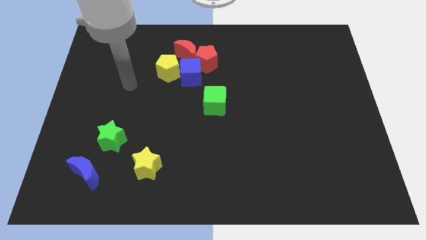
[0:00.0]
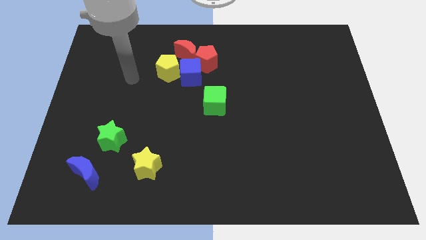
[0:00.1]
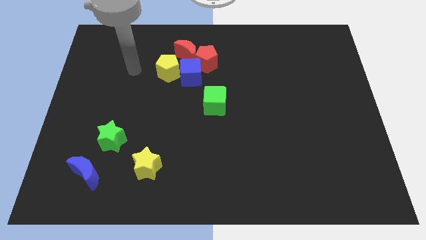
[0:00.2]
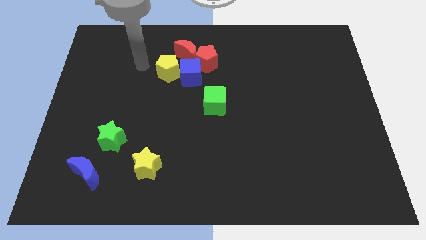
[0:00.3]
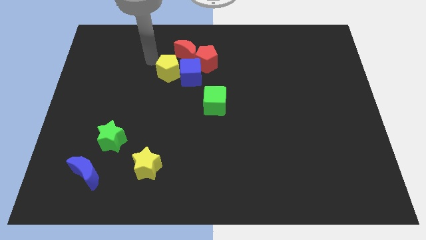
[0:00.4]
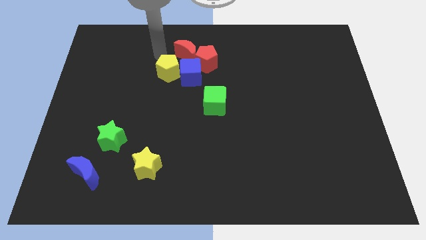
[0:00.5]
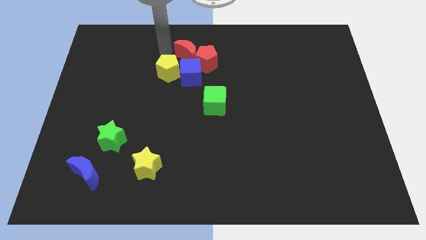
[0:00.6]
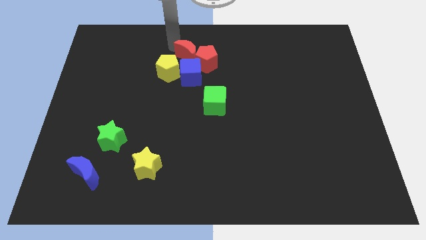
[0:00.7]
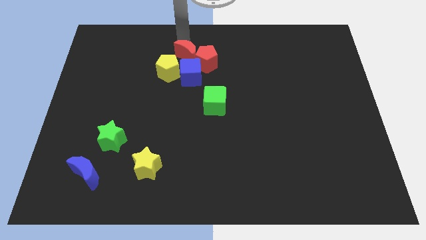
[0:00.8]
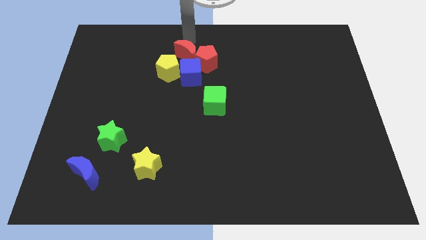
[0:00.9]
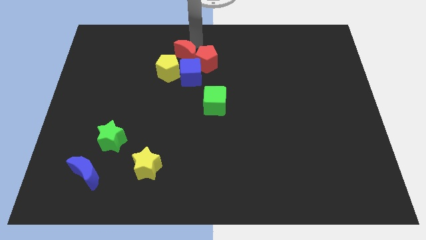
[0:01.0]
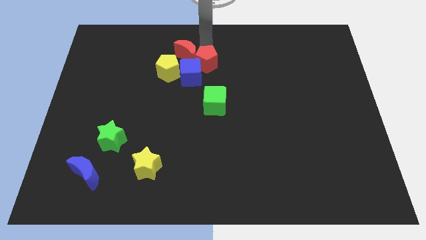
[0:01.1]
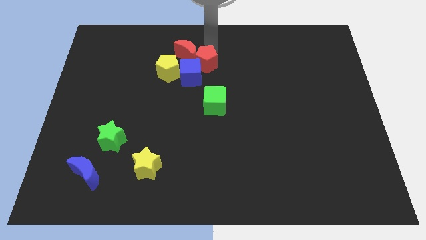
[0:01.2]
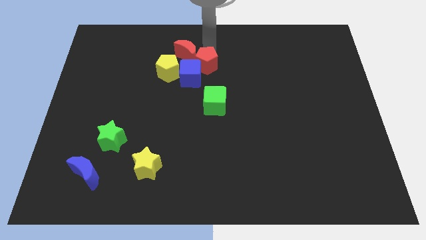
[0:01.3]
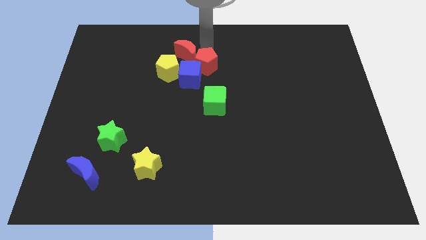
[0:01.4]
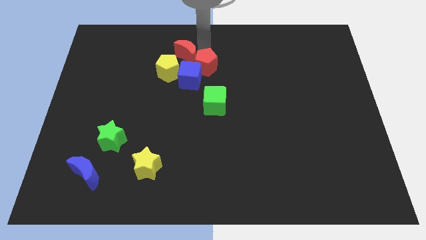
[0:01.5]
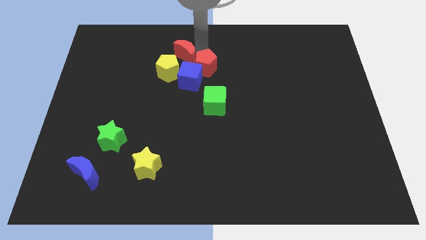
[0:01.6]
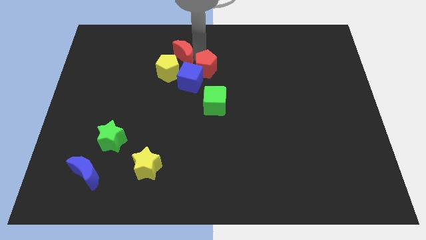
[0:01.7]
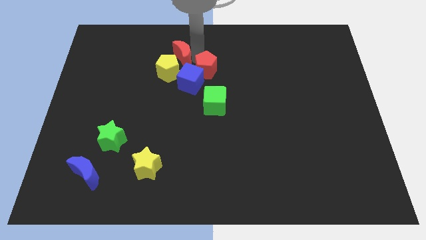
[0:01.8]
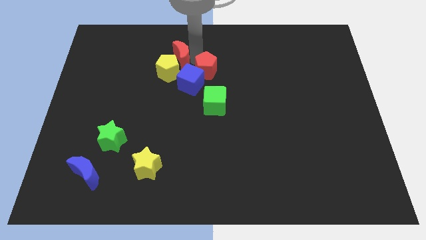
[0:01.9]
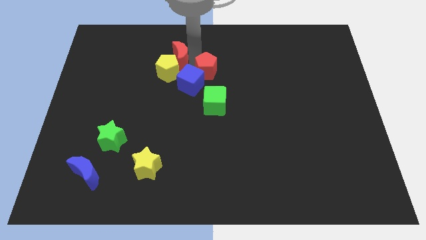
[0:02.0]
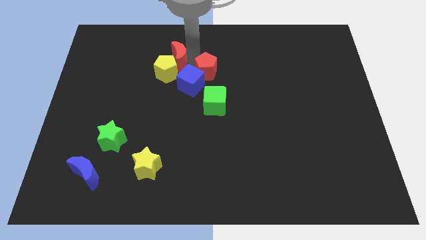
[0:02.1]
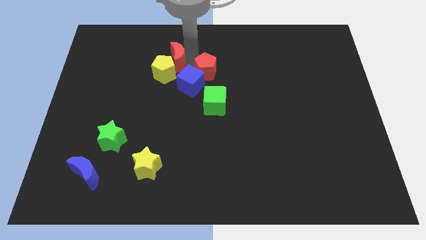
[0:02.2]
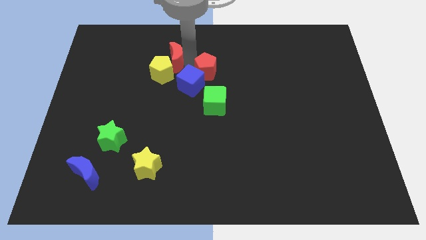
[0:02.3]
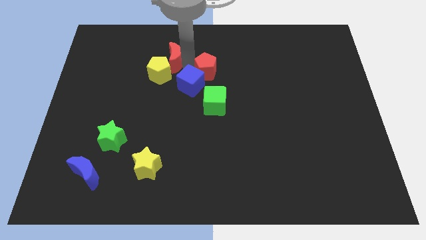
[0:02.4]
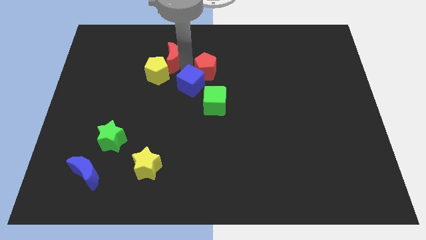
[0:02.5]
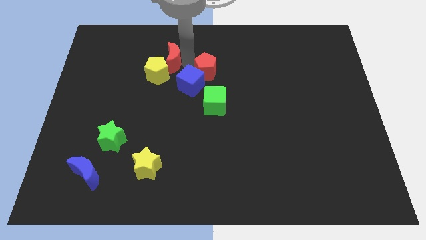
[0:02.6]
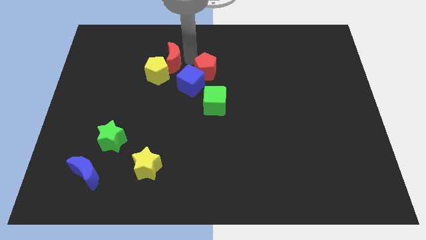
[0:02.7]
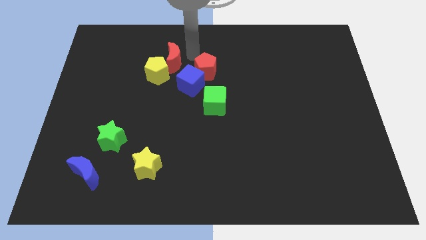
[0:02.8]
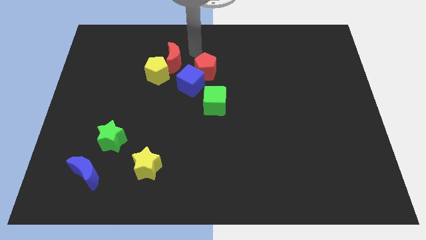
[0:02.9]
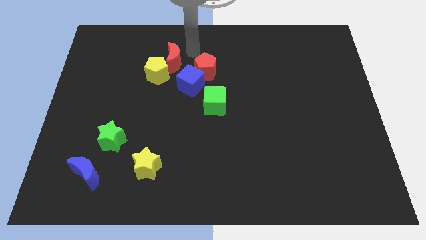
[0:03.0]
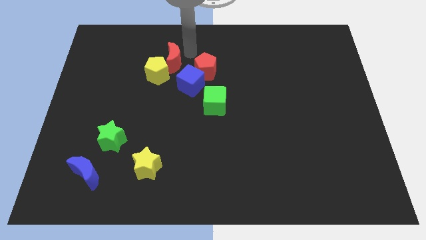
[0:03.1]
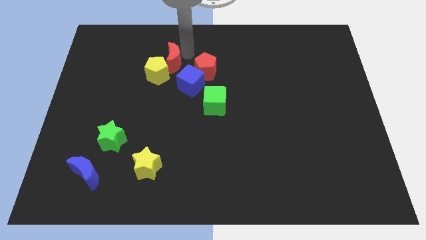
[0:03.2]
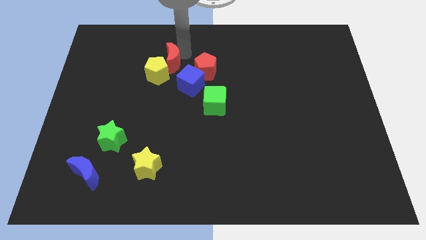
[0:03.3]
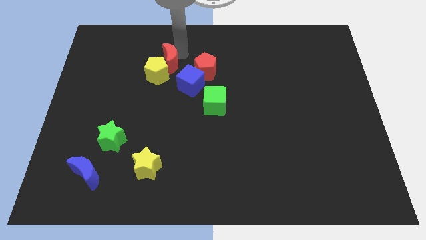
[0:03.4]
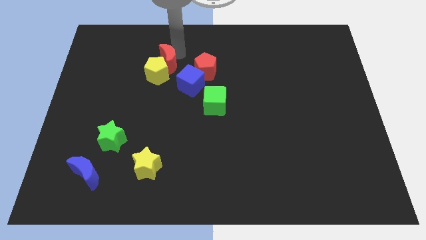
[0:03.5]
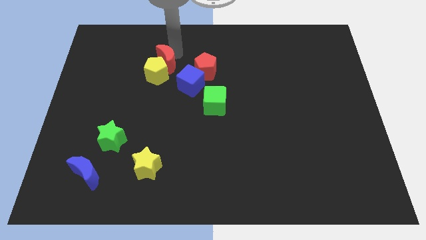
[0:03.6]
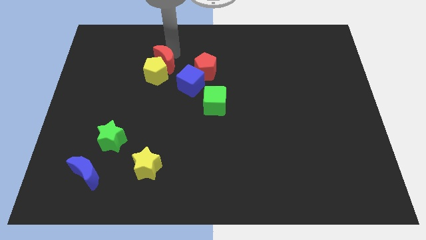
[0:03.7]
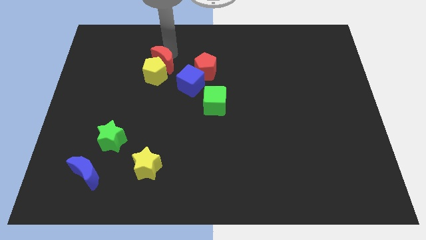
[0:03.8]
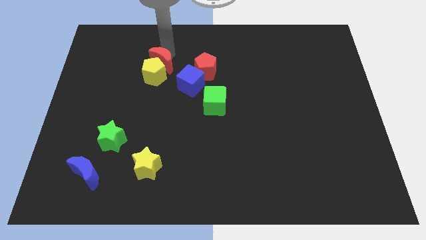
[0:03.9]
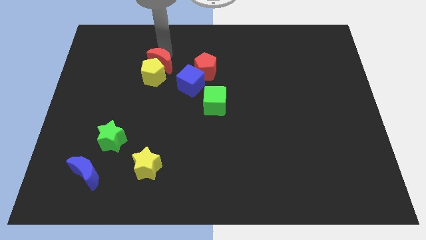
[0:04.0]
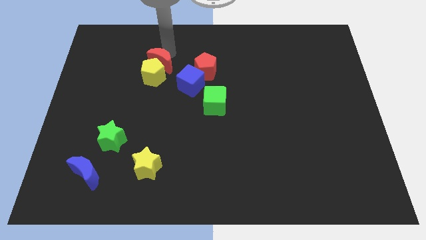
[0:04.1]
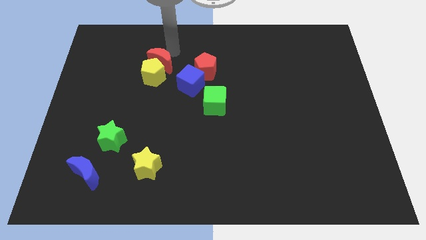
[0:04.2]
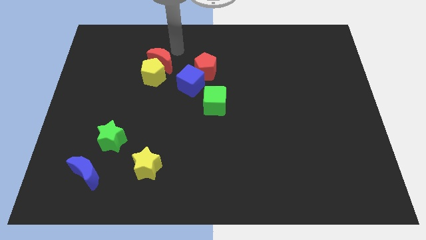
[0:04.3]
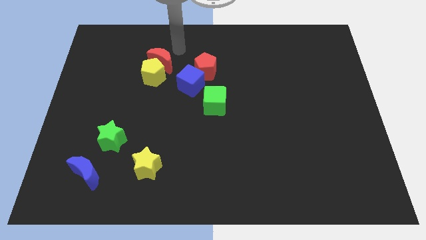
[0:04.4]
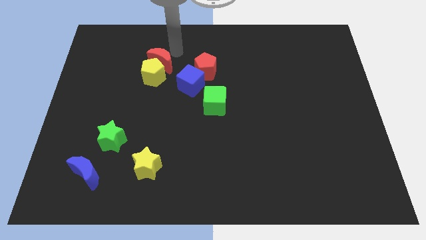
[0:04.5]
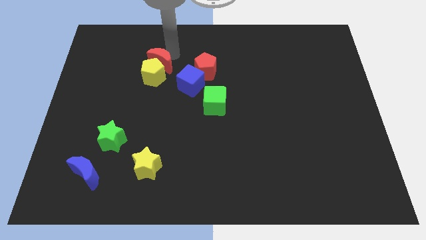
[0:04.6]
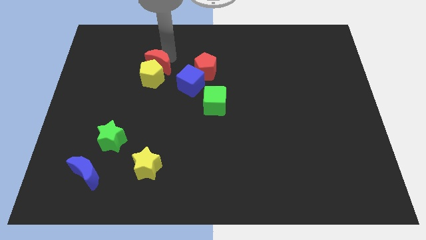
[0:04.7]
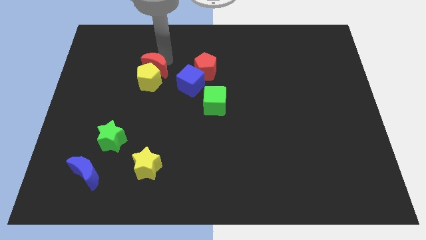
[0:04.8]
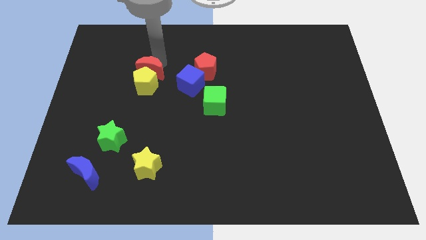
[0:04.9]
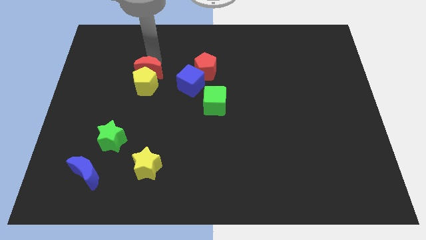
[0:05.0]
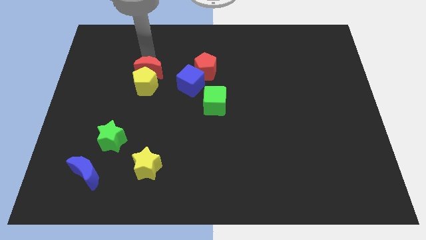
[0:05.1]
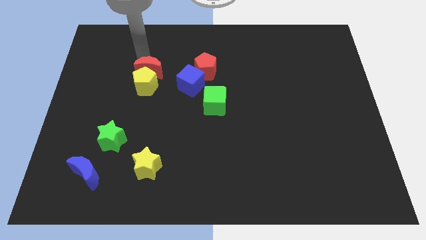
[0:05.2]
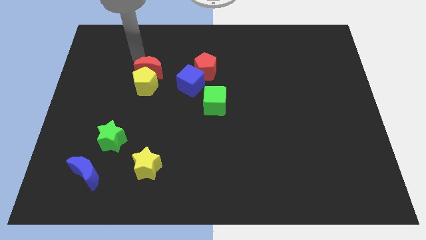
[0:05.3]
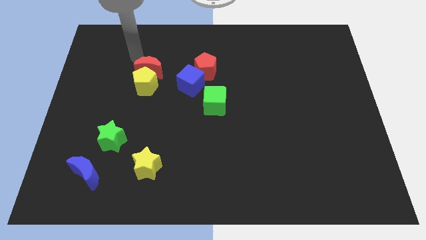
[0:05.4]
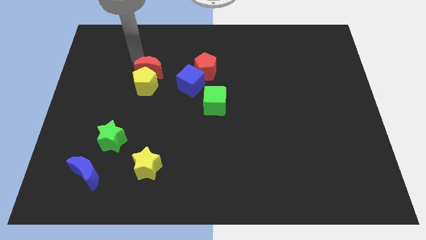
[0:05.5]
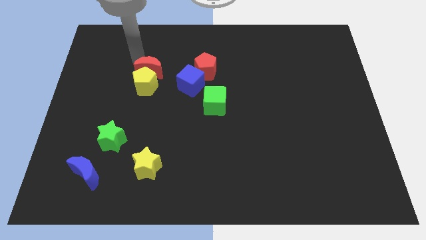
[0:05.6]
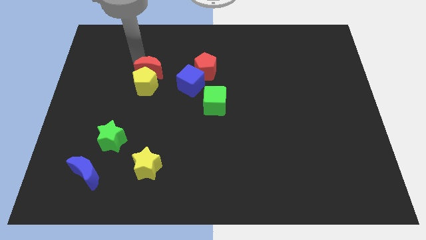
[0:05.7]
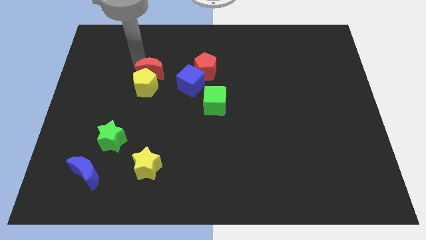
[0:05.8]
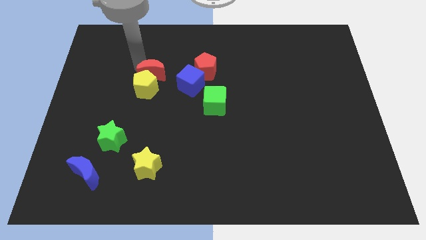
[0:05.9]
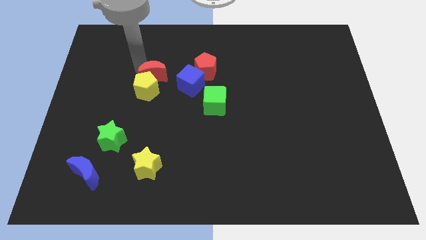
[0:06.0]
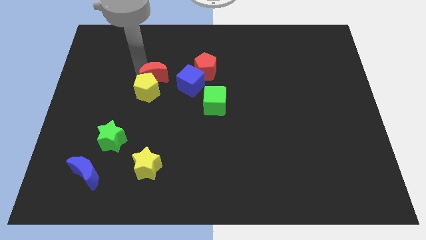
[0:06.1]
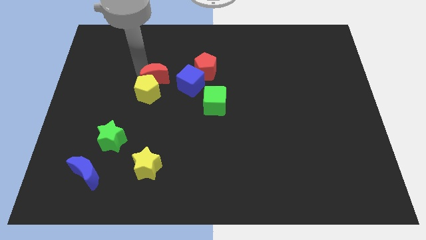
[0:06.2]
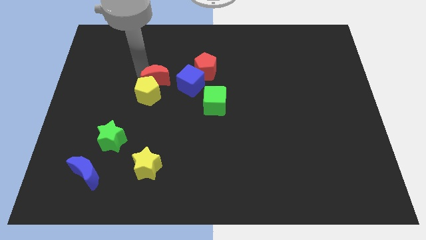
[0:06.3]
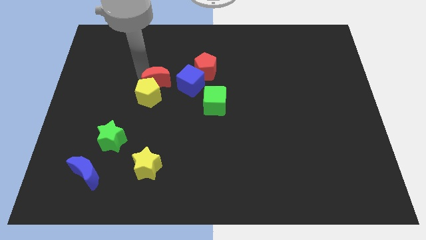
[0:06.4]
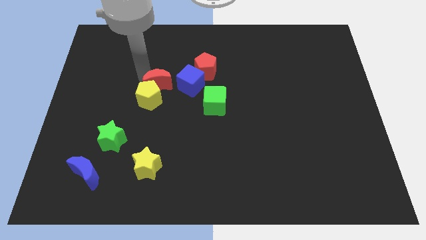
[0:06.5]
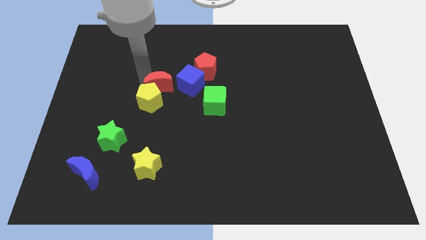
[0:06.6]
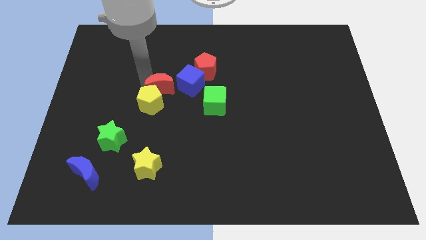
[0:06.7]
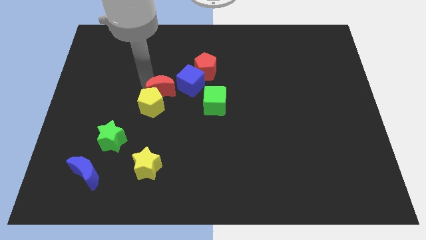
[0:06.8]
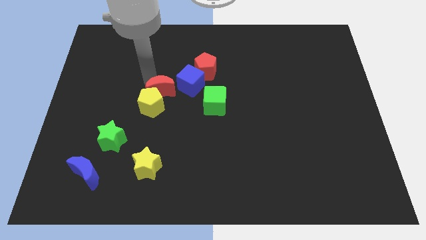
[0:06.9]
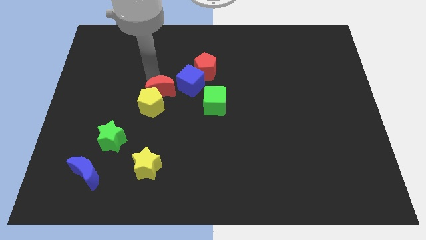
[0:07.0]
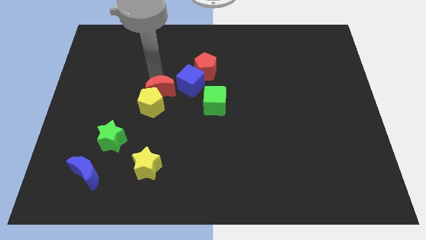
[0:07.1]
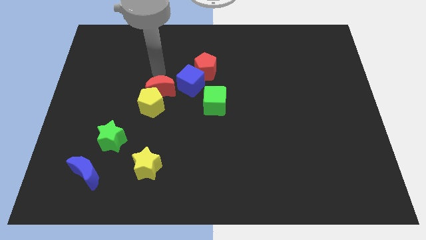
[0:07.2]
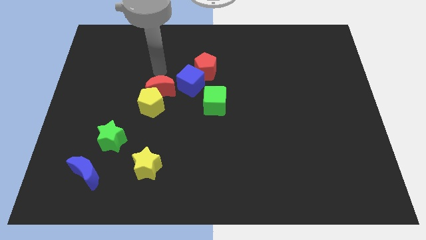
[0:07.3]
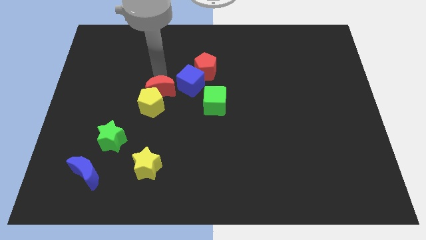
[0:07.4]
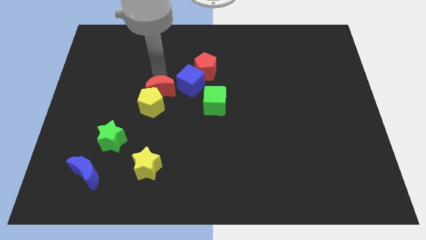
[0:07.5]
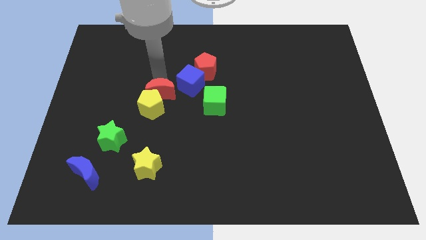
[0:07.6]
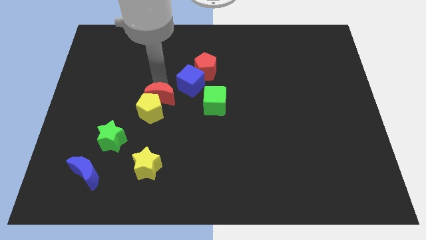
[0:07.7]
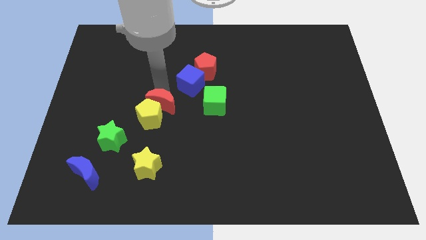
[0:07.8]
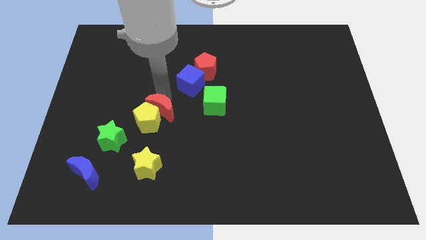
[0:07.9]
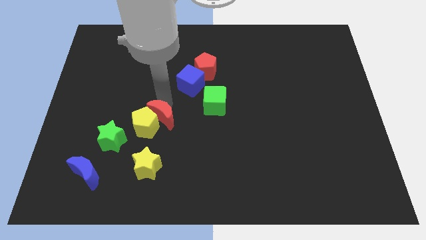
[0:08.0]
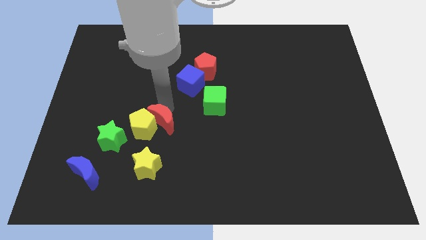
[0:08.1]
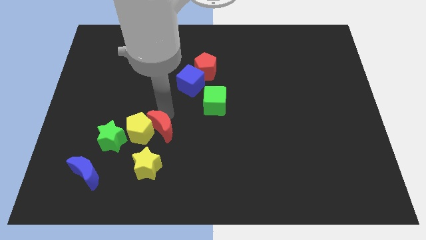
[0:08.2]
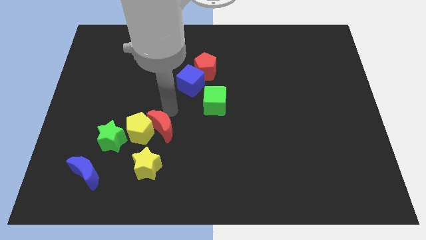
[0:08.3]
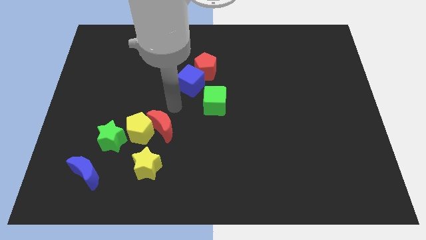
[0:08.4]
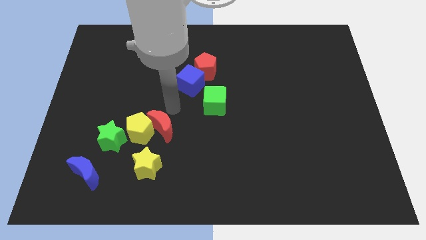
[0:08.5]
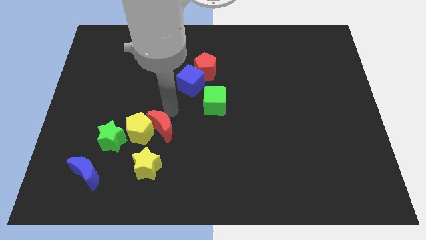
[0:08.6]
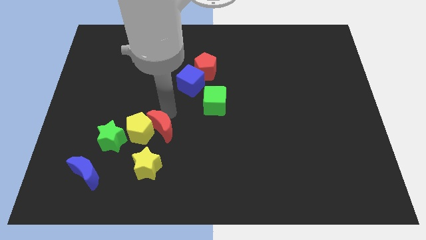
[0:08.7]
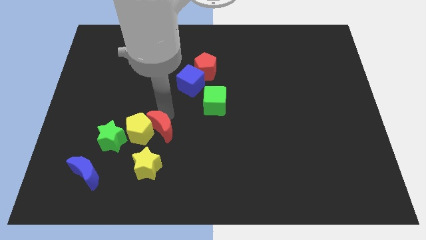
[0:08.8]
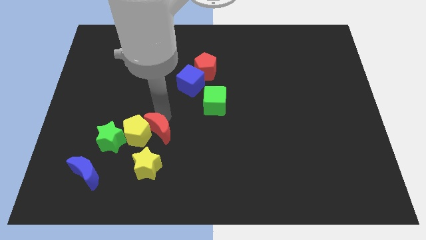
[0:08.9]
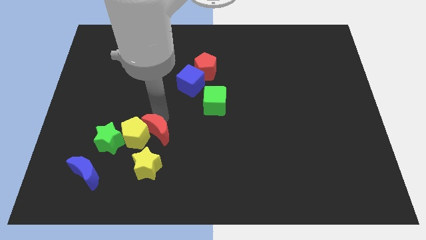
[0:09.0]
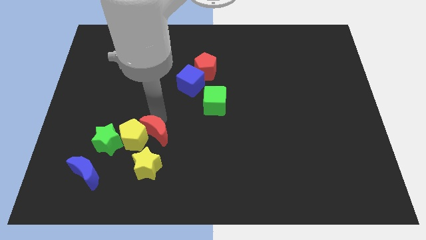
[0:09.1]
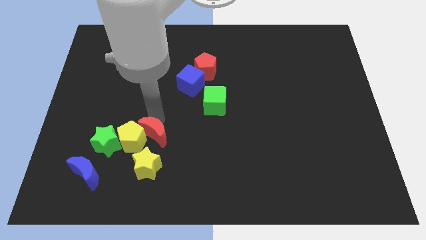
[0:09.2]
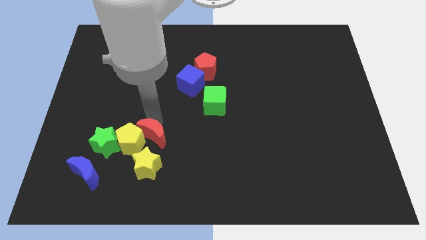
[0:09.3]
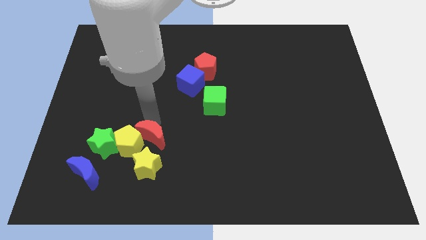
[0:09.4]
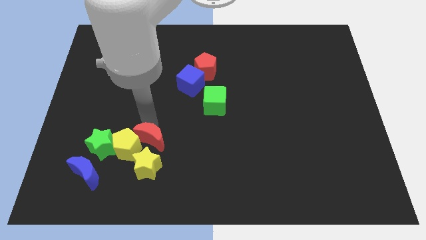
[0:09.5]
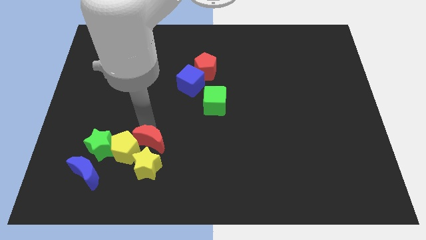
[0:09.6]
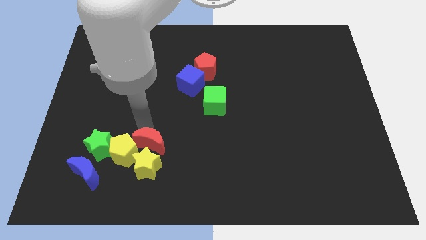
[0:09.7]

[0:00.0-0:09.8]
put the red moon next to the yellow star
